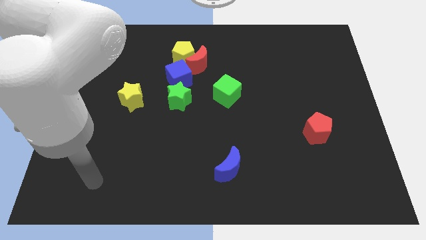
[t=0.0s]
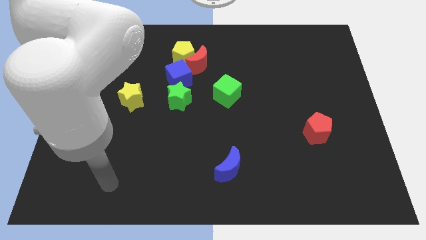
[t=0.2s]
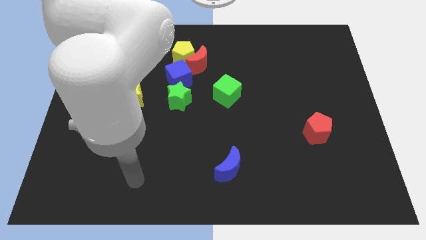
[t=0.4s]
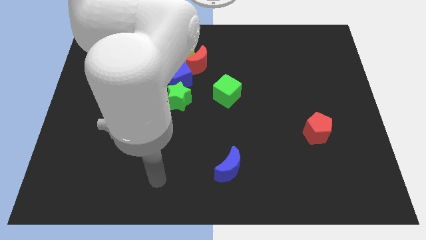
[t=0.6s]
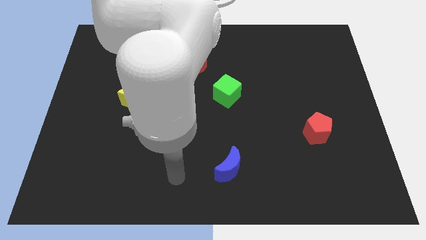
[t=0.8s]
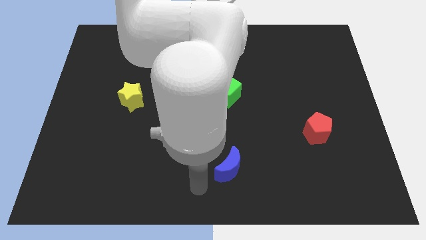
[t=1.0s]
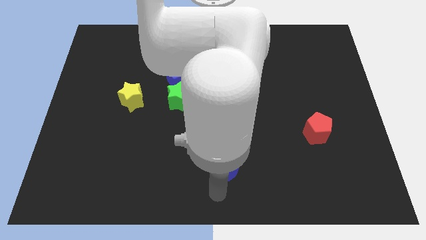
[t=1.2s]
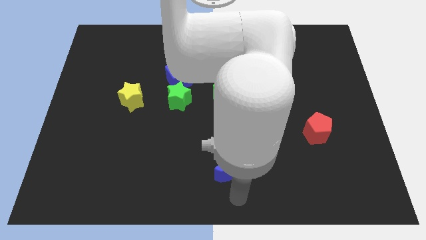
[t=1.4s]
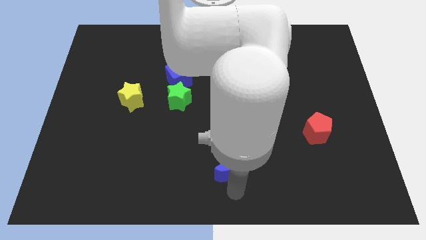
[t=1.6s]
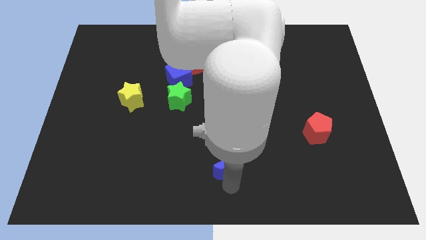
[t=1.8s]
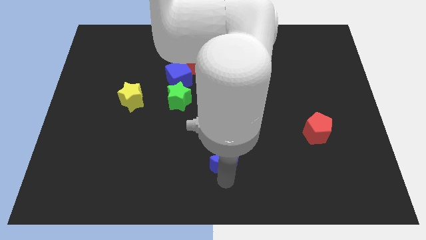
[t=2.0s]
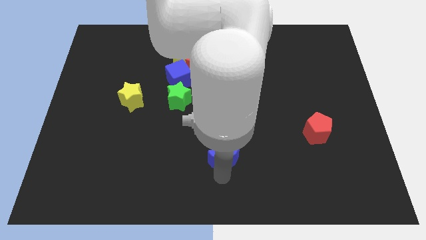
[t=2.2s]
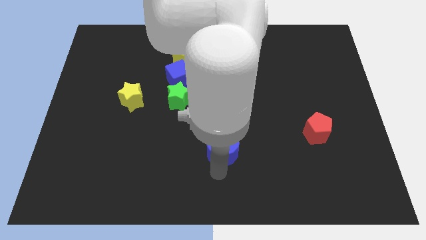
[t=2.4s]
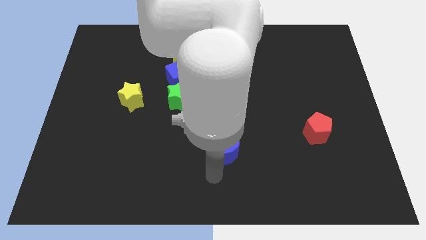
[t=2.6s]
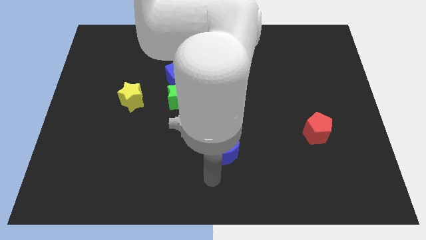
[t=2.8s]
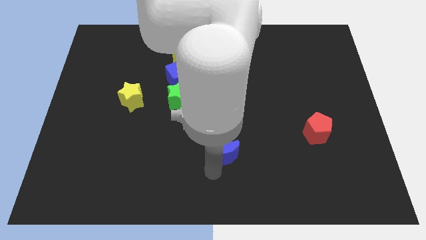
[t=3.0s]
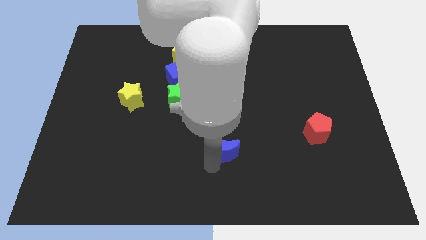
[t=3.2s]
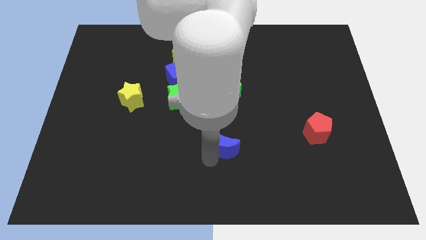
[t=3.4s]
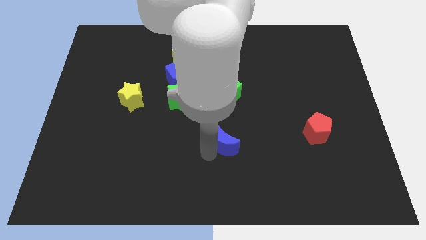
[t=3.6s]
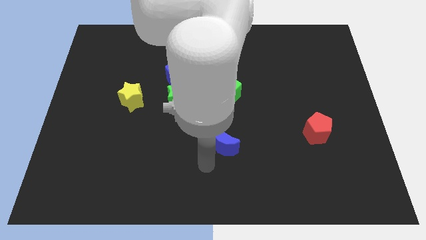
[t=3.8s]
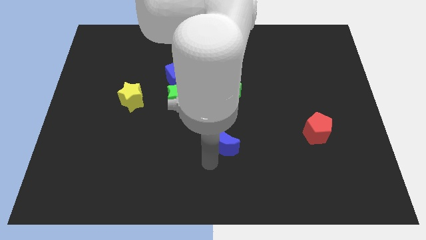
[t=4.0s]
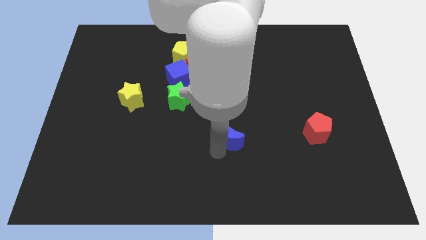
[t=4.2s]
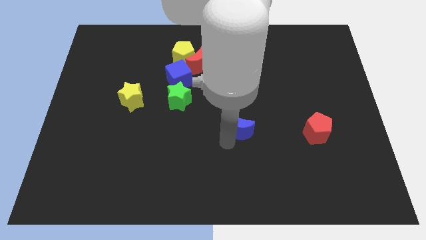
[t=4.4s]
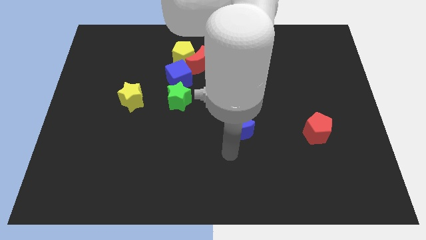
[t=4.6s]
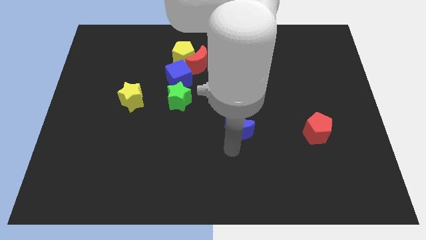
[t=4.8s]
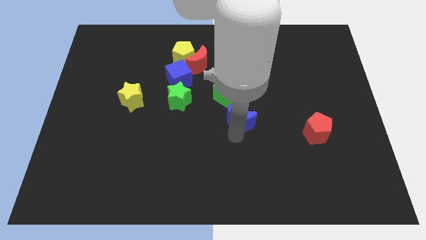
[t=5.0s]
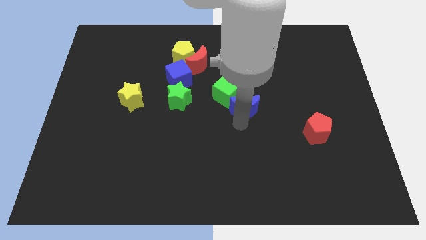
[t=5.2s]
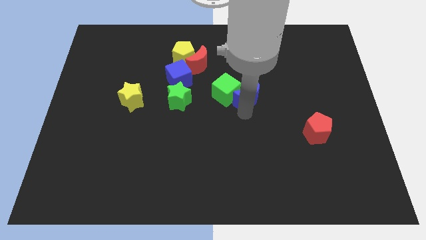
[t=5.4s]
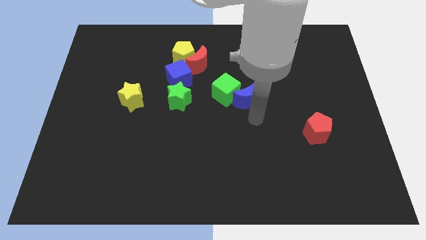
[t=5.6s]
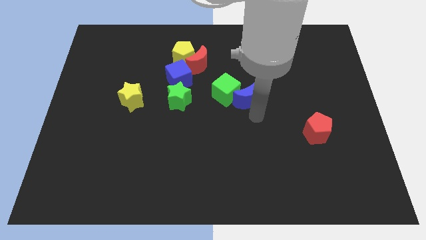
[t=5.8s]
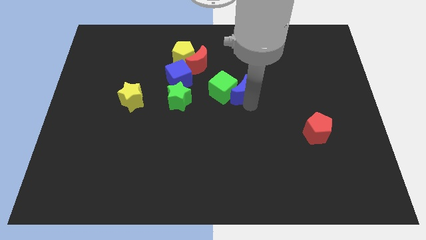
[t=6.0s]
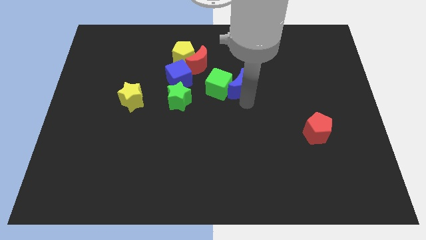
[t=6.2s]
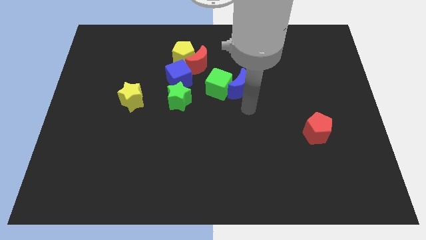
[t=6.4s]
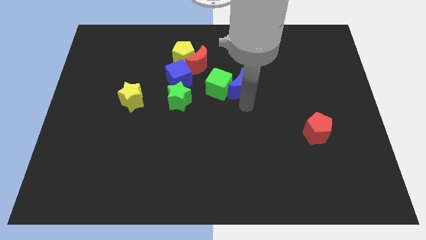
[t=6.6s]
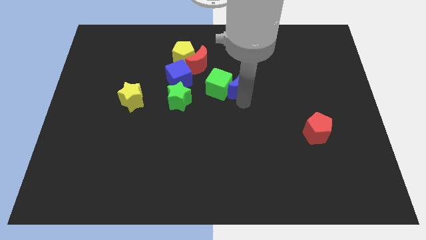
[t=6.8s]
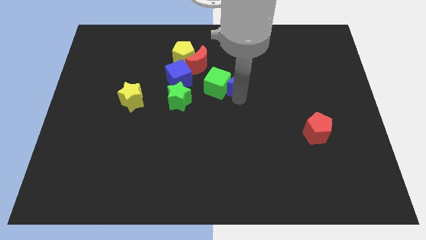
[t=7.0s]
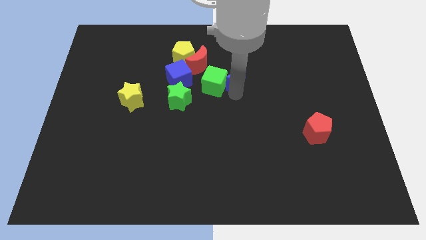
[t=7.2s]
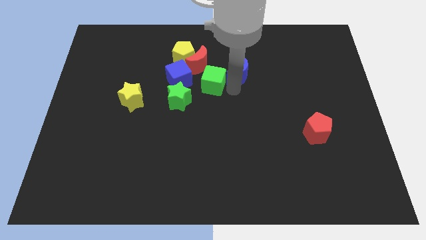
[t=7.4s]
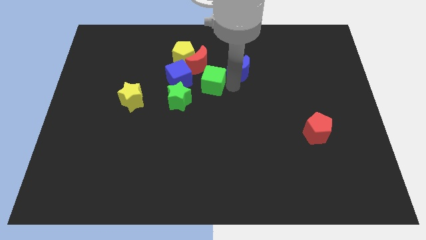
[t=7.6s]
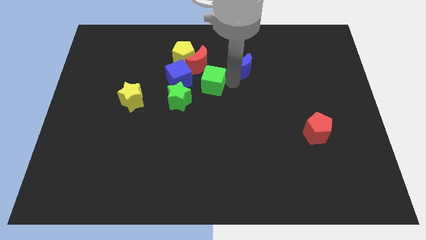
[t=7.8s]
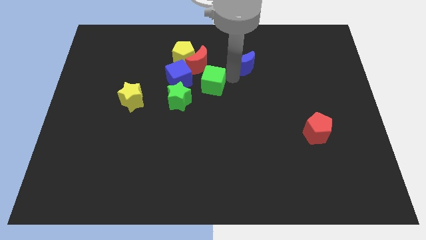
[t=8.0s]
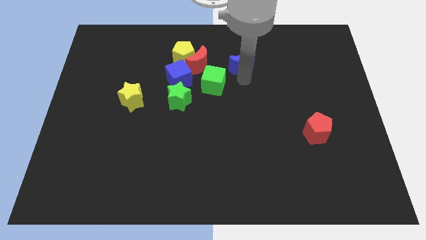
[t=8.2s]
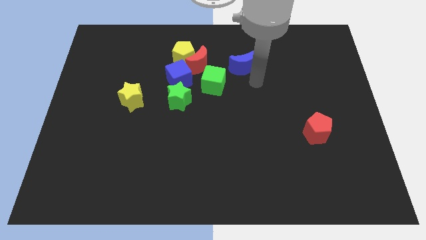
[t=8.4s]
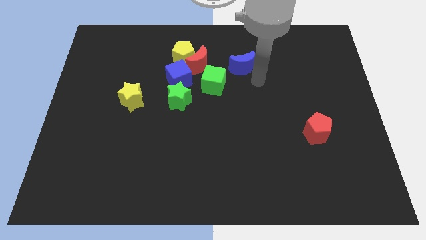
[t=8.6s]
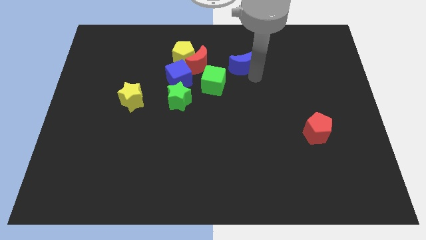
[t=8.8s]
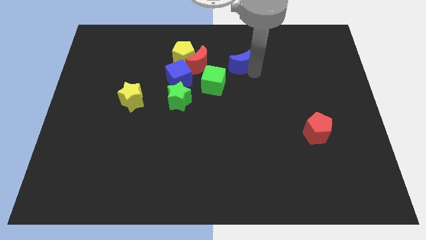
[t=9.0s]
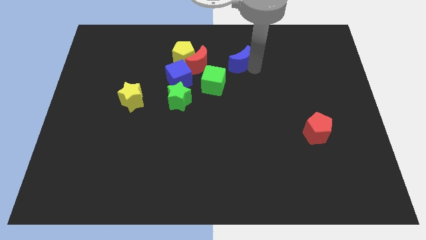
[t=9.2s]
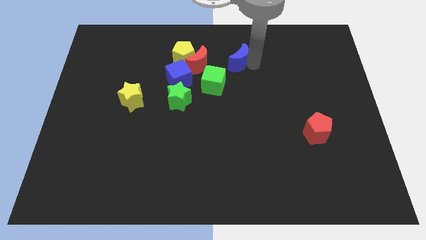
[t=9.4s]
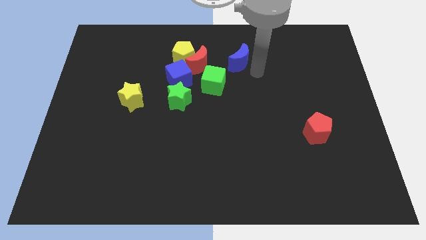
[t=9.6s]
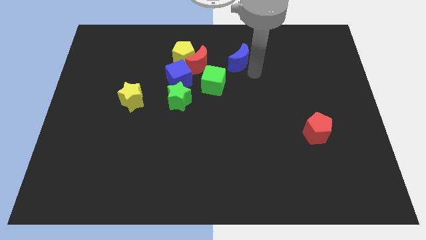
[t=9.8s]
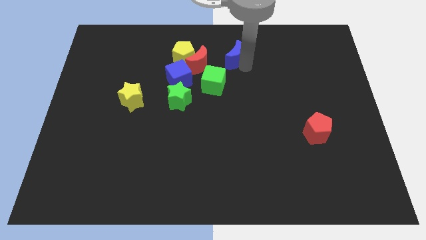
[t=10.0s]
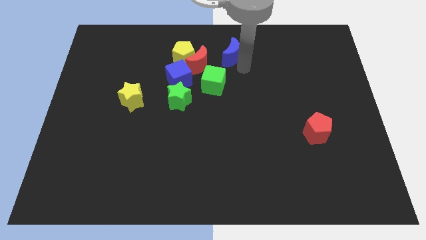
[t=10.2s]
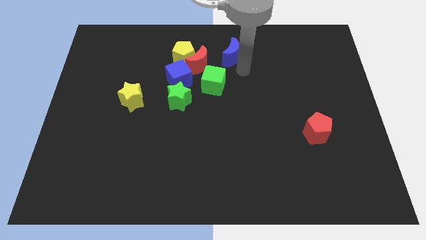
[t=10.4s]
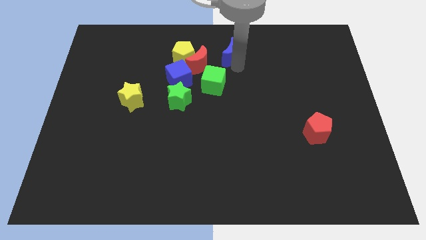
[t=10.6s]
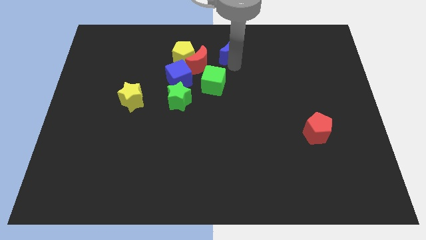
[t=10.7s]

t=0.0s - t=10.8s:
put the blue moon to the top side
